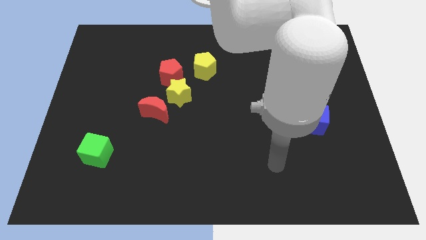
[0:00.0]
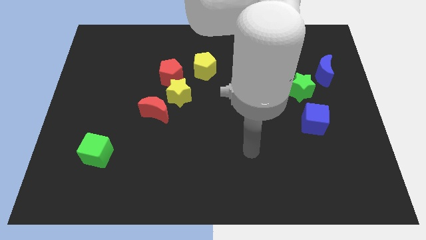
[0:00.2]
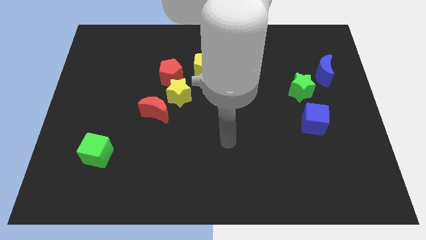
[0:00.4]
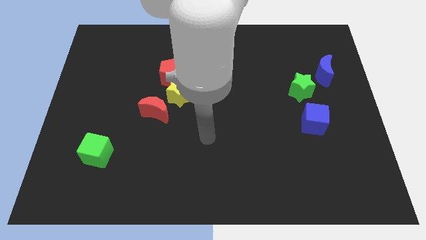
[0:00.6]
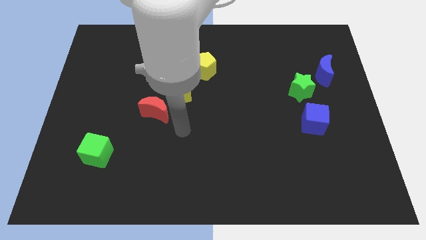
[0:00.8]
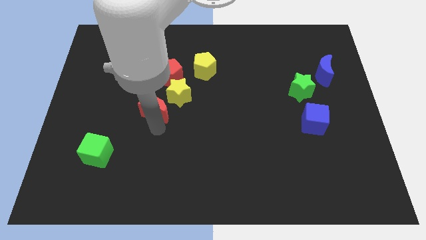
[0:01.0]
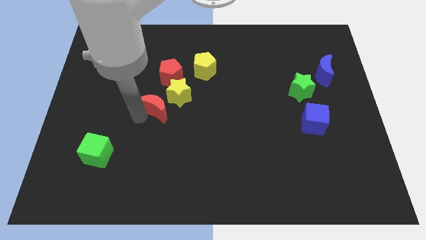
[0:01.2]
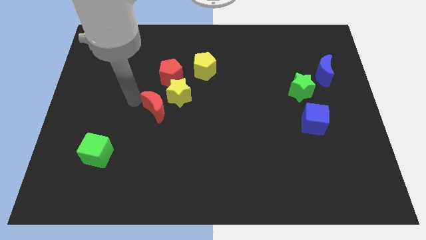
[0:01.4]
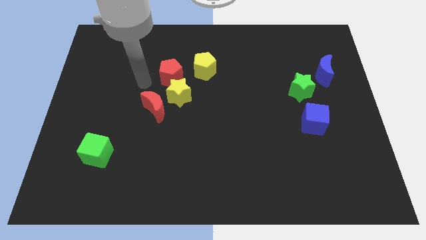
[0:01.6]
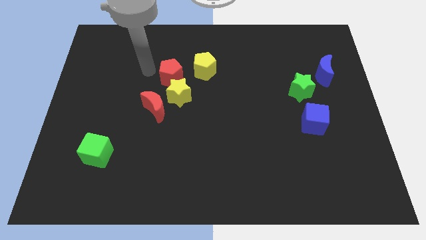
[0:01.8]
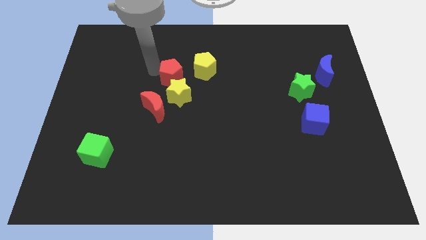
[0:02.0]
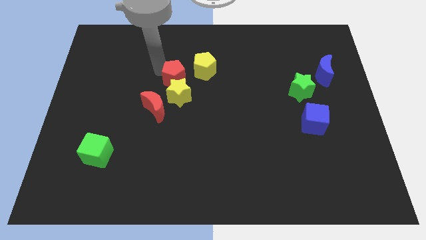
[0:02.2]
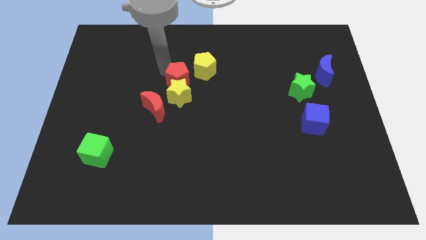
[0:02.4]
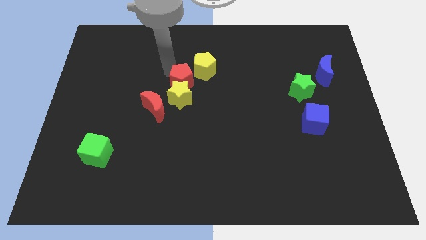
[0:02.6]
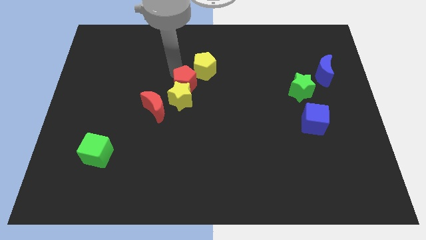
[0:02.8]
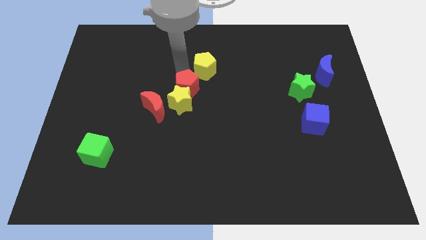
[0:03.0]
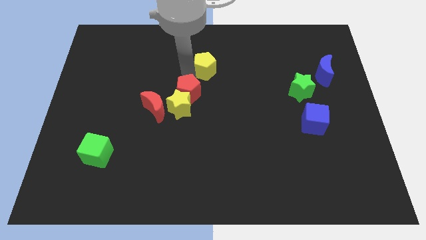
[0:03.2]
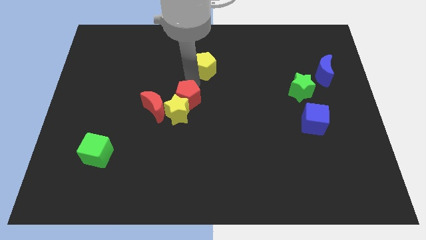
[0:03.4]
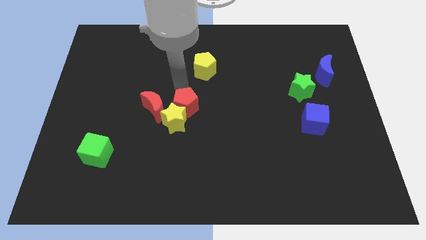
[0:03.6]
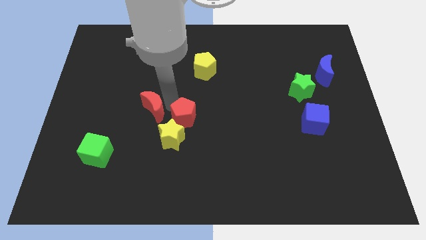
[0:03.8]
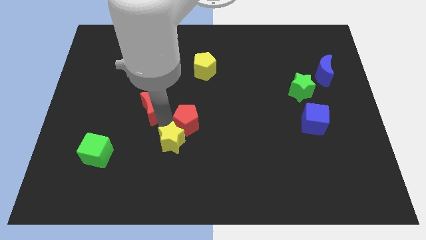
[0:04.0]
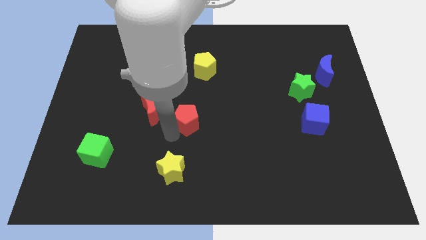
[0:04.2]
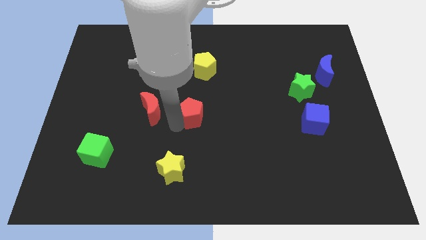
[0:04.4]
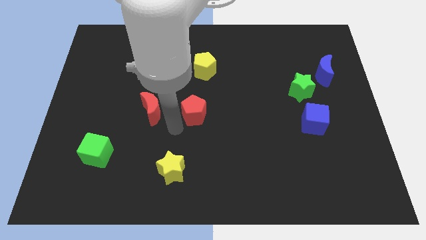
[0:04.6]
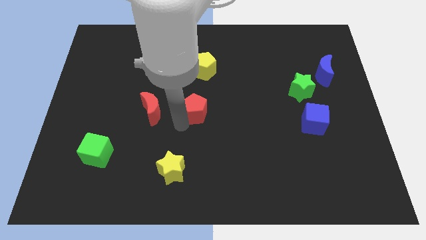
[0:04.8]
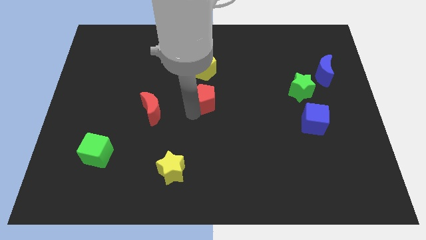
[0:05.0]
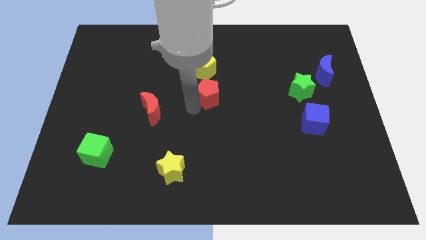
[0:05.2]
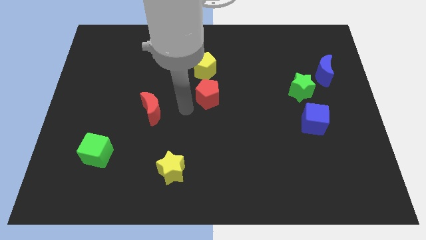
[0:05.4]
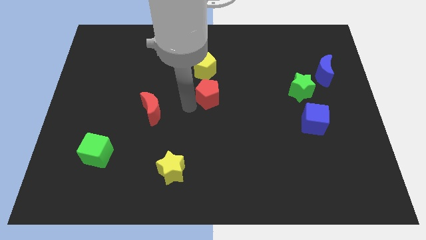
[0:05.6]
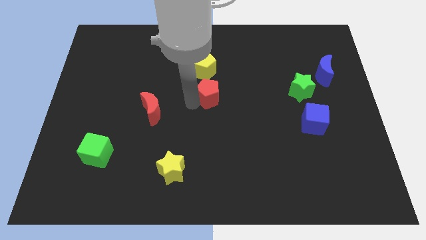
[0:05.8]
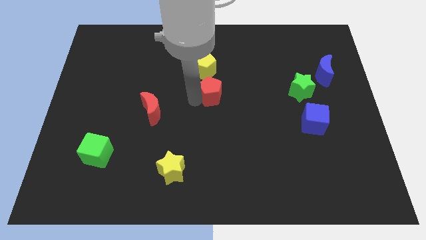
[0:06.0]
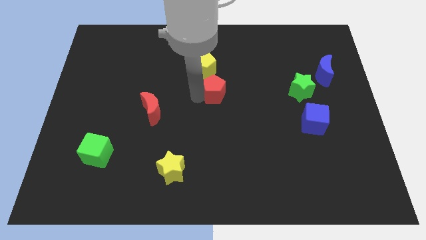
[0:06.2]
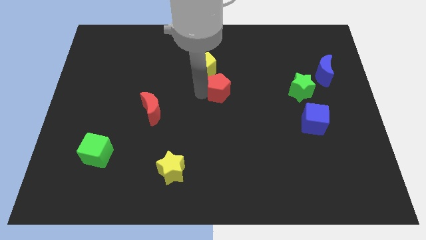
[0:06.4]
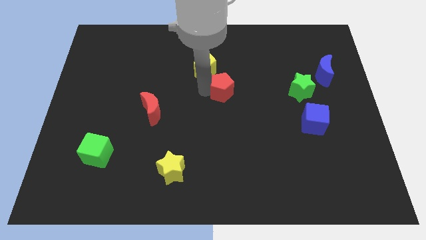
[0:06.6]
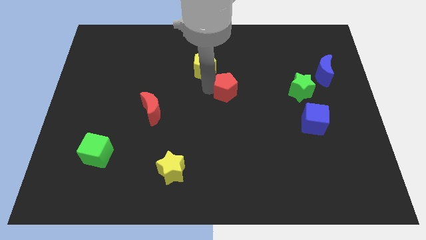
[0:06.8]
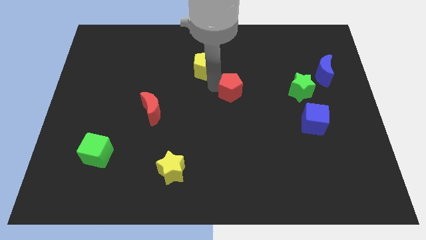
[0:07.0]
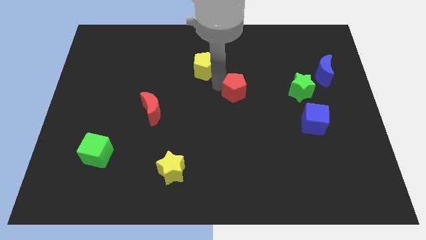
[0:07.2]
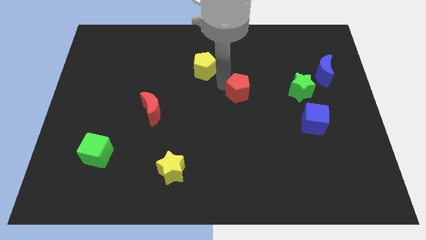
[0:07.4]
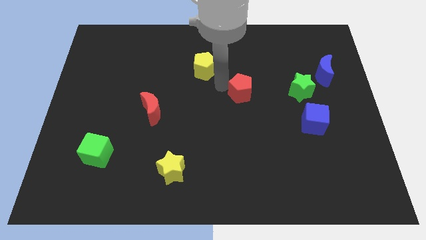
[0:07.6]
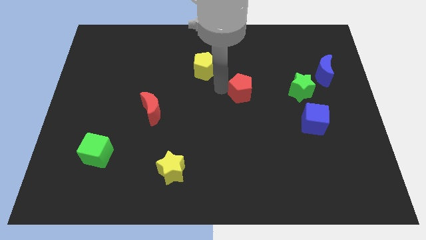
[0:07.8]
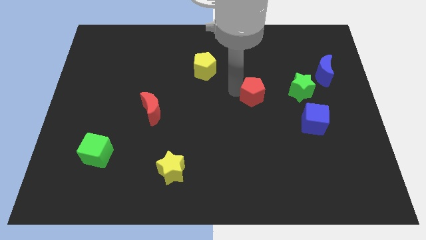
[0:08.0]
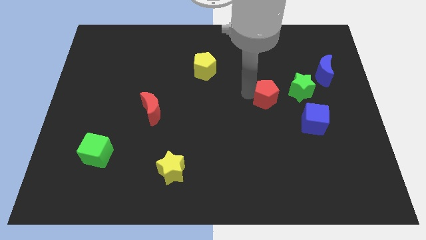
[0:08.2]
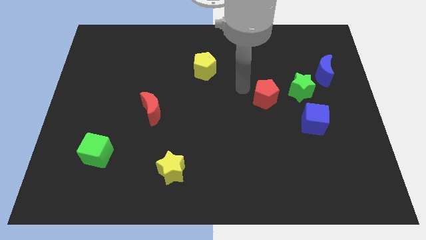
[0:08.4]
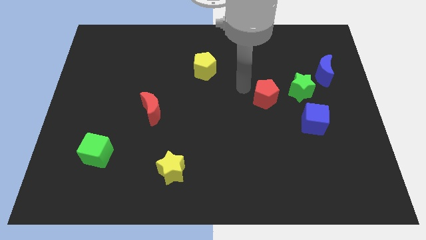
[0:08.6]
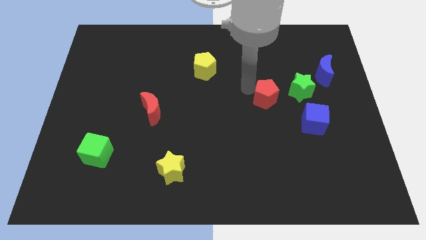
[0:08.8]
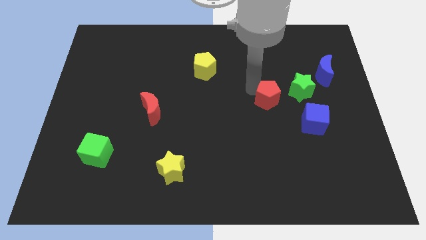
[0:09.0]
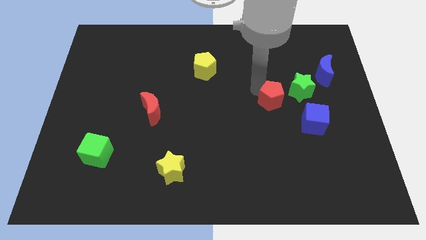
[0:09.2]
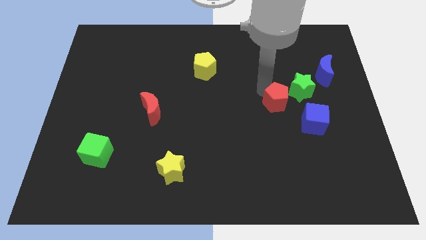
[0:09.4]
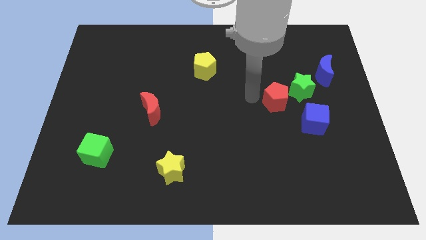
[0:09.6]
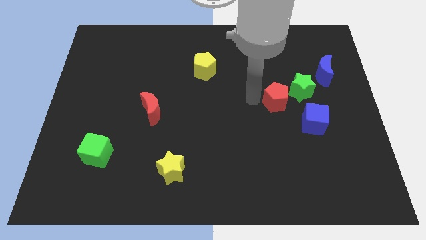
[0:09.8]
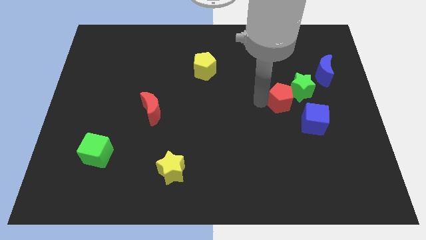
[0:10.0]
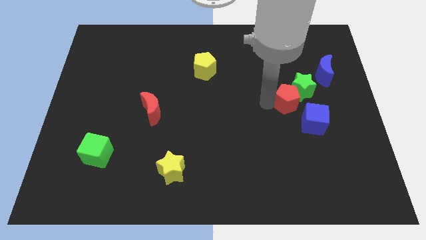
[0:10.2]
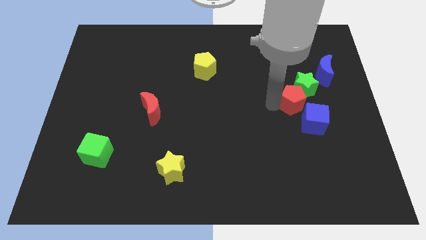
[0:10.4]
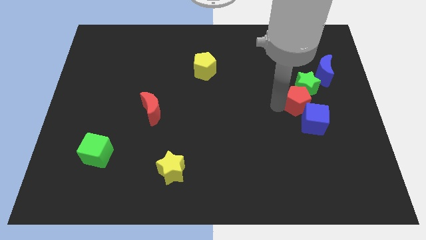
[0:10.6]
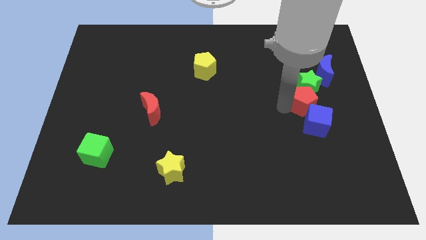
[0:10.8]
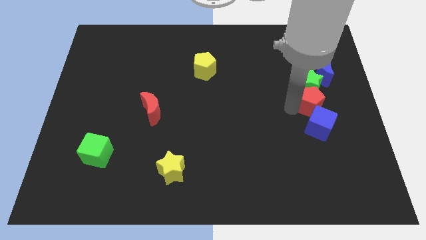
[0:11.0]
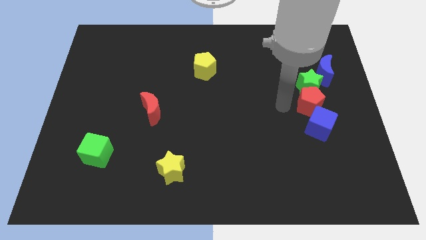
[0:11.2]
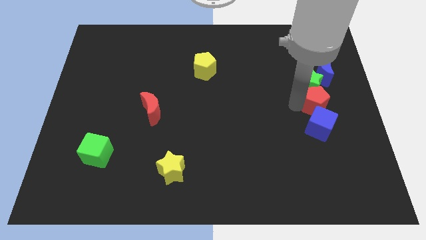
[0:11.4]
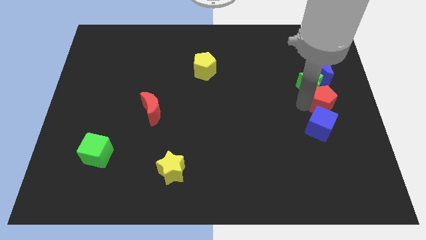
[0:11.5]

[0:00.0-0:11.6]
put the red pentagon to the right side
